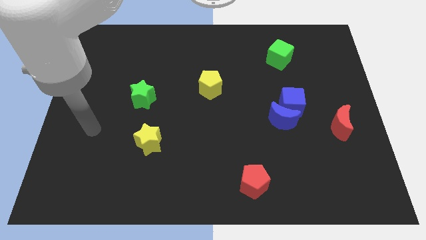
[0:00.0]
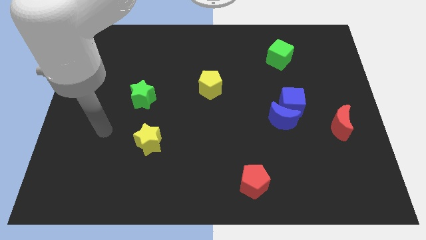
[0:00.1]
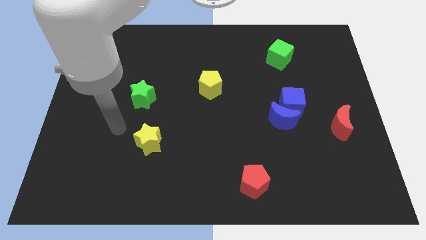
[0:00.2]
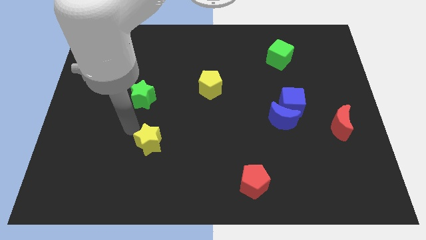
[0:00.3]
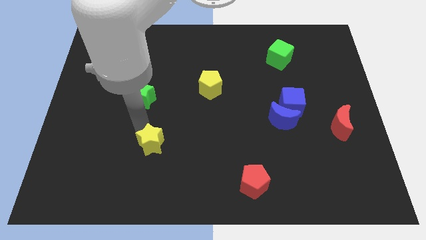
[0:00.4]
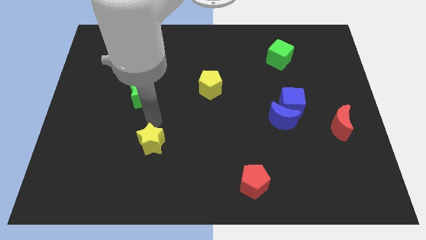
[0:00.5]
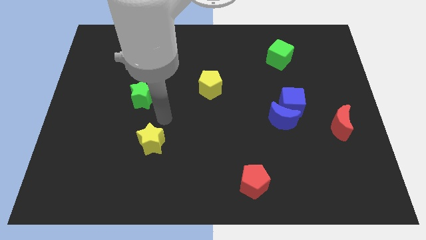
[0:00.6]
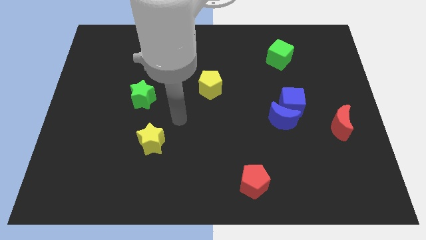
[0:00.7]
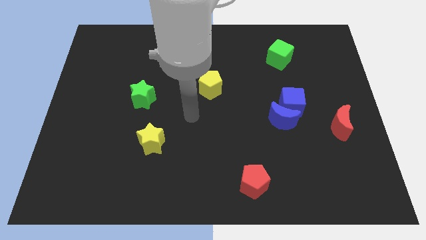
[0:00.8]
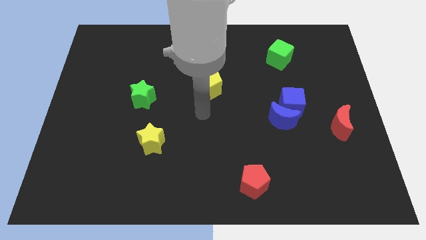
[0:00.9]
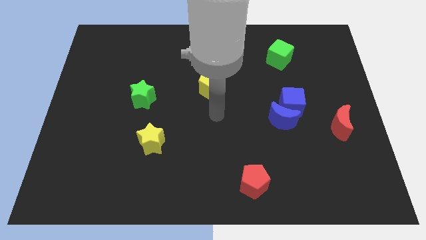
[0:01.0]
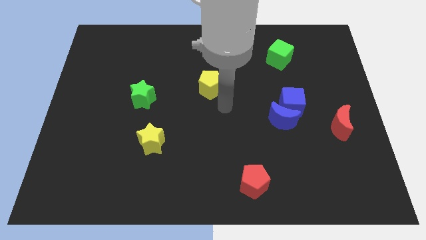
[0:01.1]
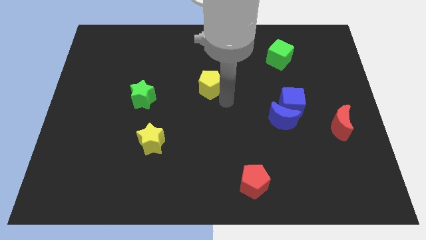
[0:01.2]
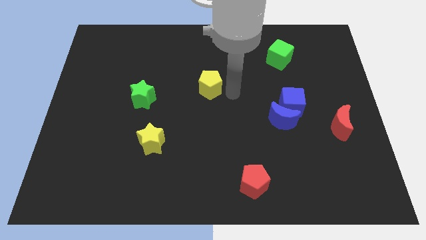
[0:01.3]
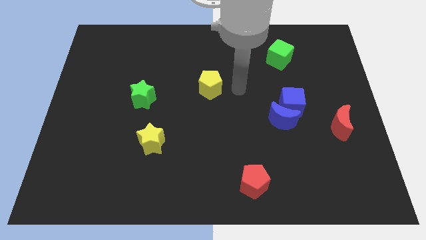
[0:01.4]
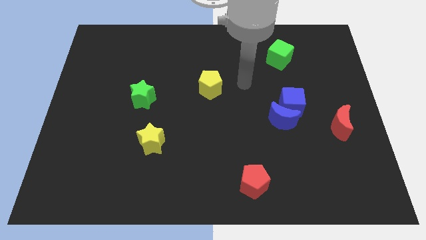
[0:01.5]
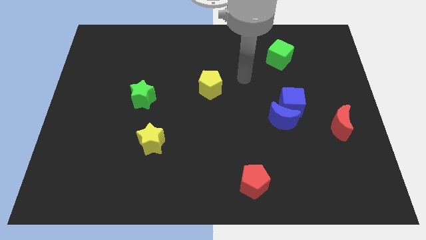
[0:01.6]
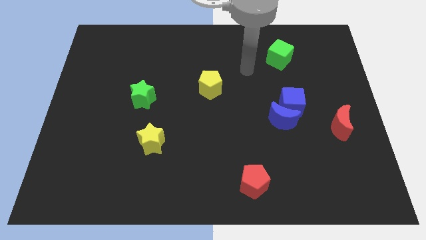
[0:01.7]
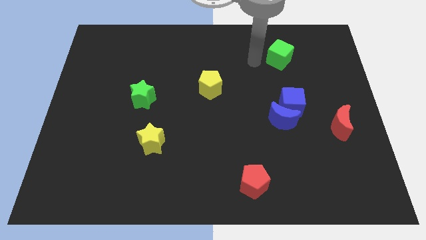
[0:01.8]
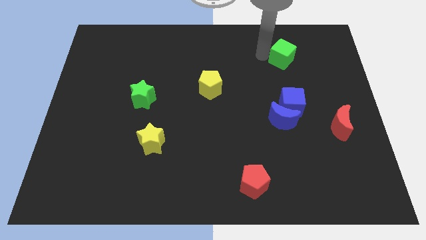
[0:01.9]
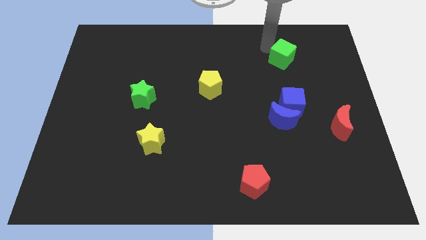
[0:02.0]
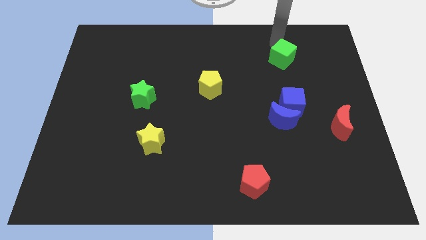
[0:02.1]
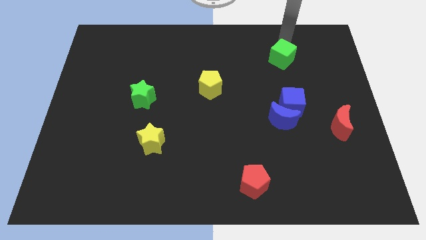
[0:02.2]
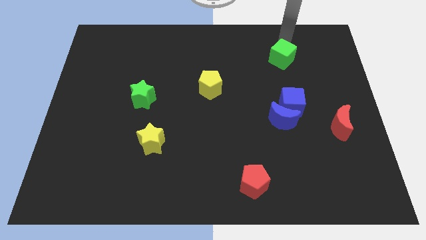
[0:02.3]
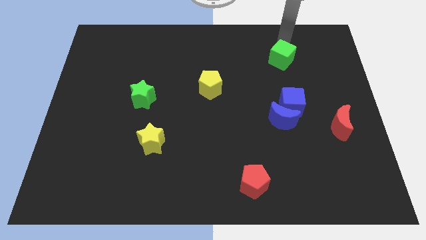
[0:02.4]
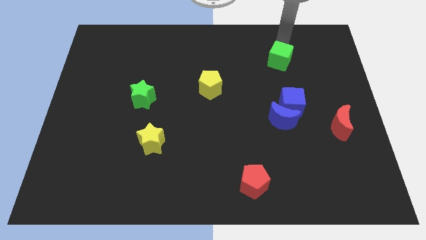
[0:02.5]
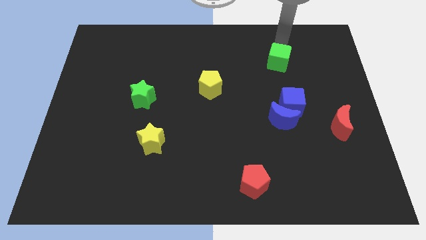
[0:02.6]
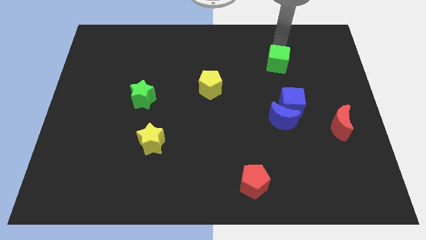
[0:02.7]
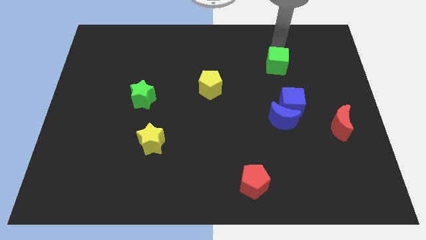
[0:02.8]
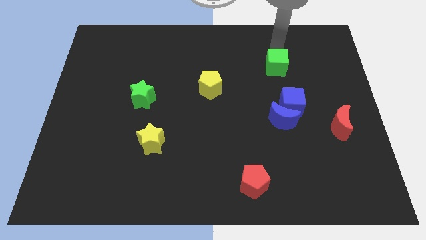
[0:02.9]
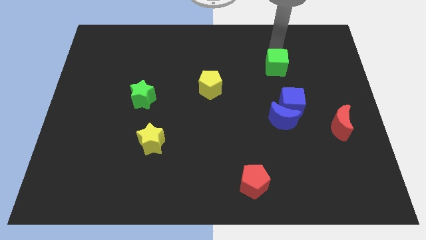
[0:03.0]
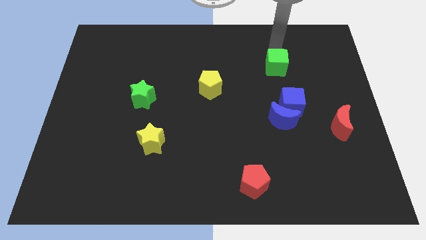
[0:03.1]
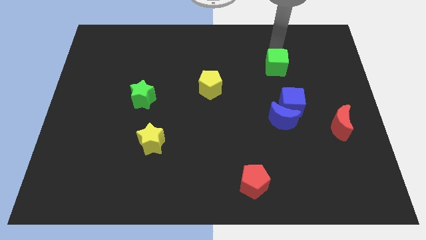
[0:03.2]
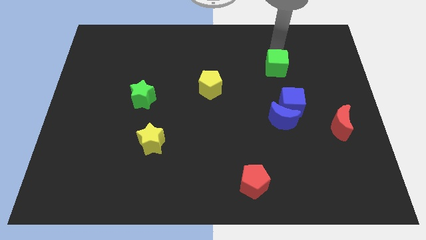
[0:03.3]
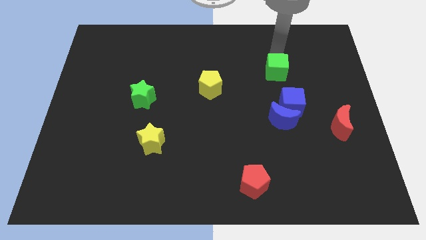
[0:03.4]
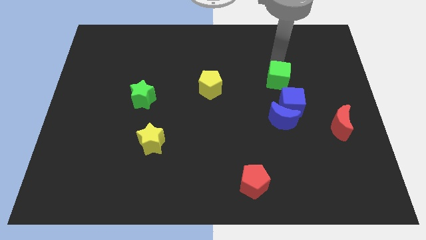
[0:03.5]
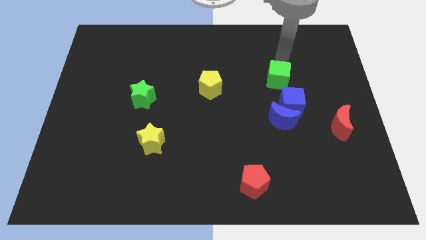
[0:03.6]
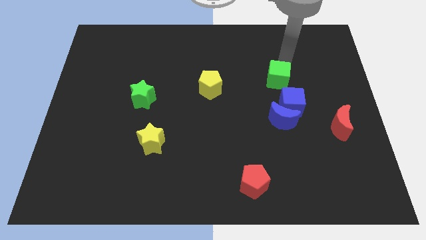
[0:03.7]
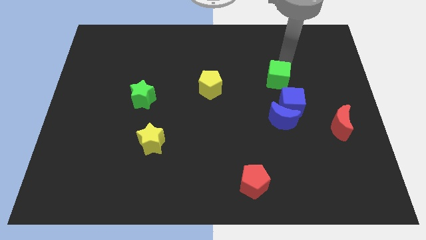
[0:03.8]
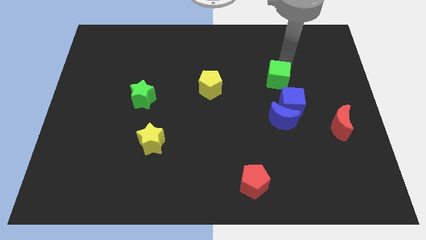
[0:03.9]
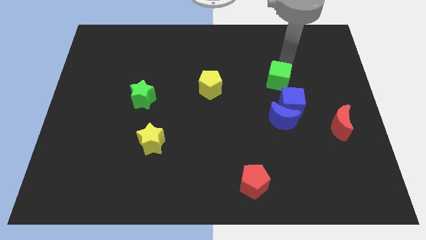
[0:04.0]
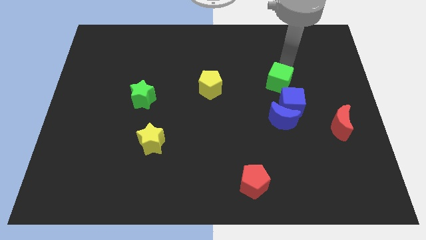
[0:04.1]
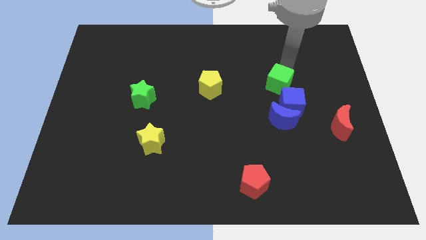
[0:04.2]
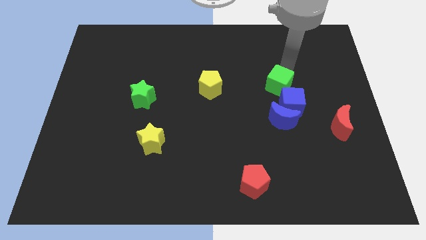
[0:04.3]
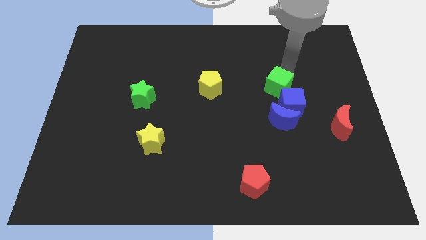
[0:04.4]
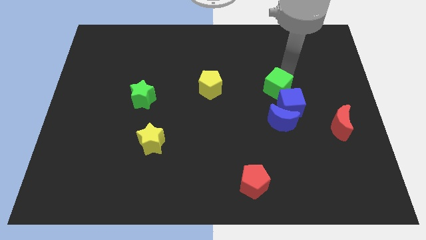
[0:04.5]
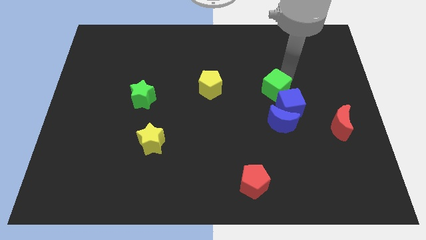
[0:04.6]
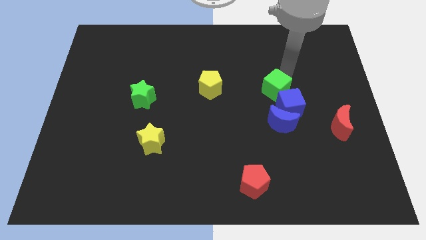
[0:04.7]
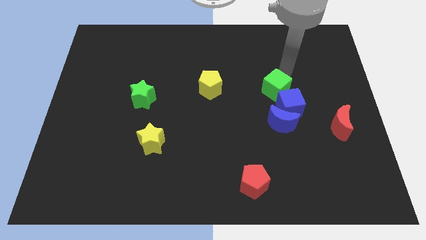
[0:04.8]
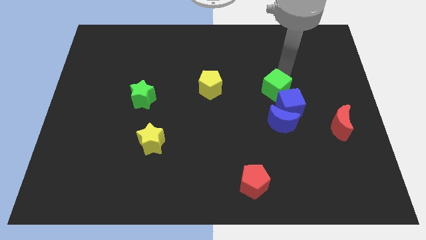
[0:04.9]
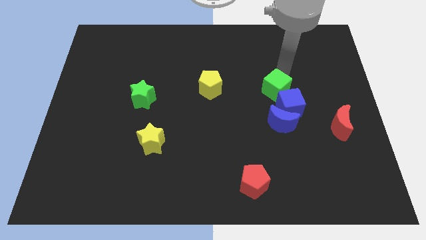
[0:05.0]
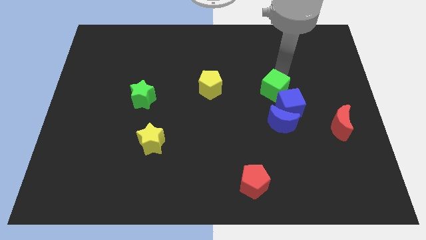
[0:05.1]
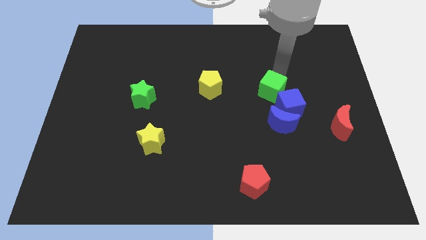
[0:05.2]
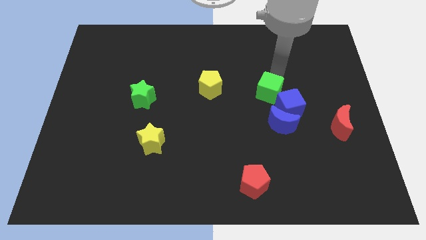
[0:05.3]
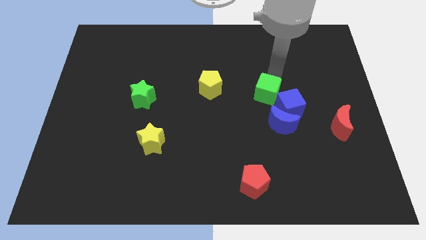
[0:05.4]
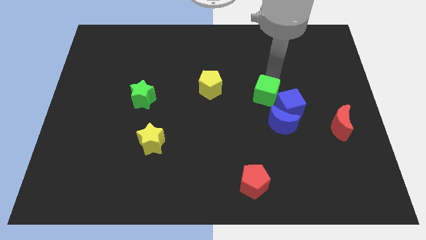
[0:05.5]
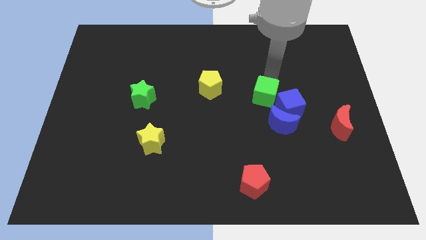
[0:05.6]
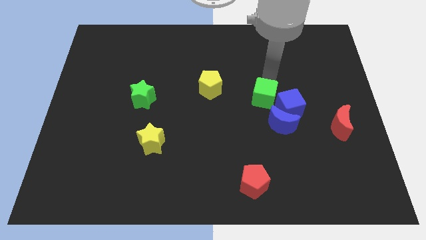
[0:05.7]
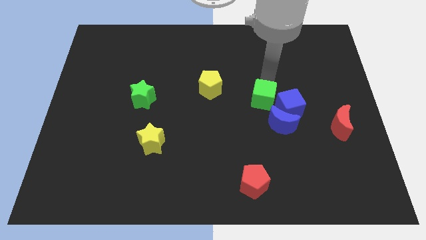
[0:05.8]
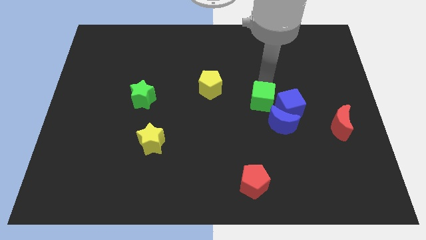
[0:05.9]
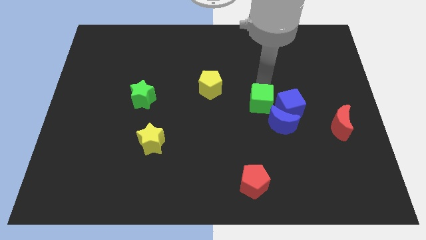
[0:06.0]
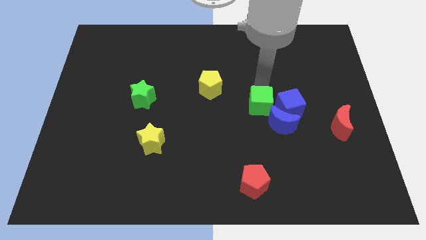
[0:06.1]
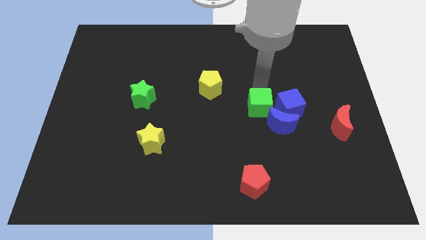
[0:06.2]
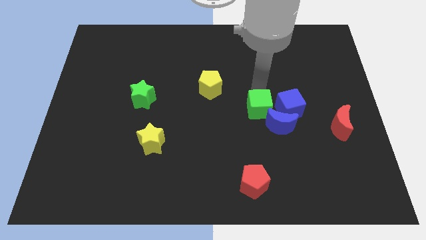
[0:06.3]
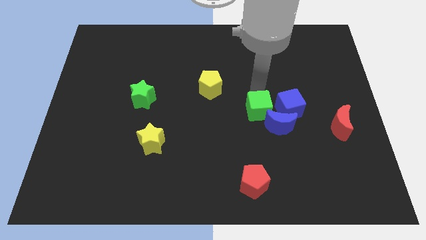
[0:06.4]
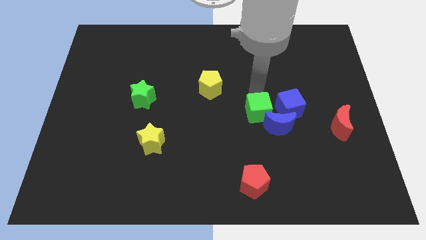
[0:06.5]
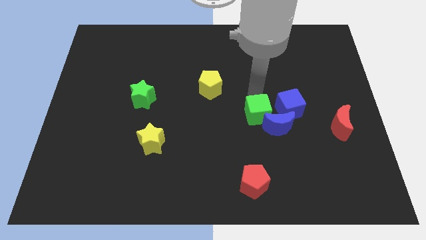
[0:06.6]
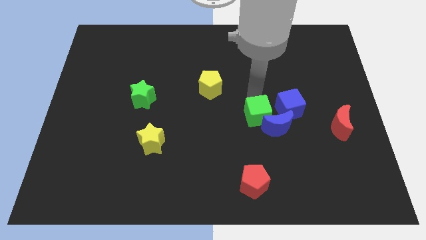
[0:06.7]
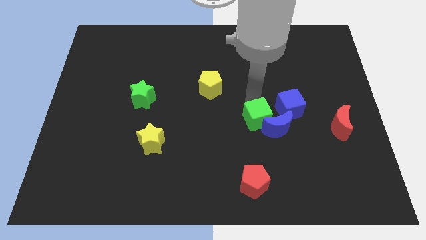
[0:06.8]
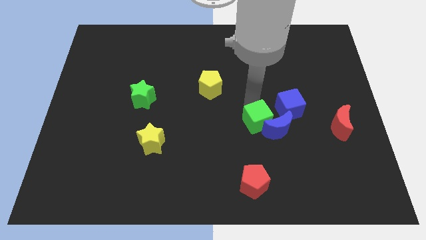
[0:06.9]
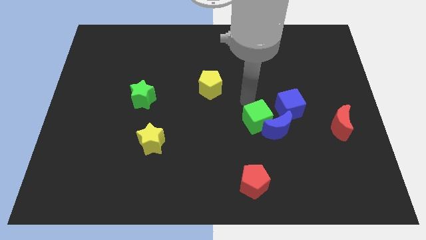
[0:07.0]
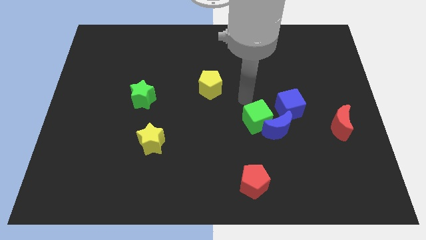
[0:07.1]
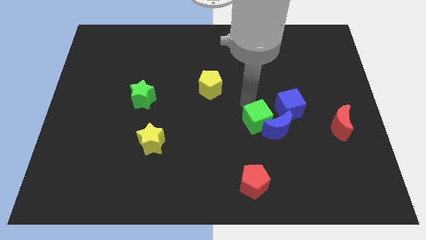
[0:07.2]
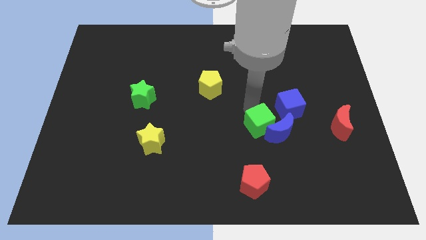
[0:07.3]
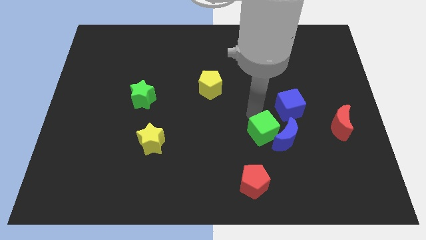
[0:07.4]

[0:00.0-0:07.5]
push the green cube down

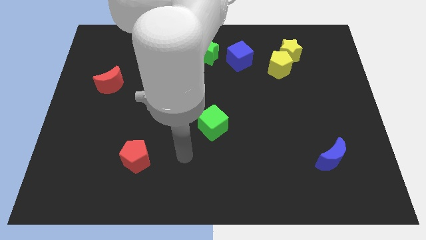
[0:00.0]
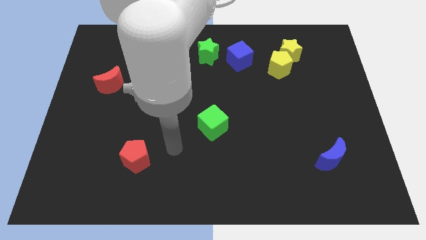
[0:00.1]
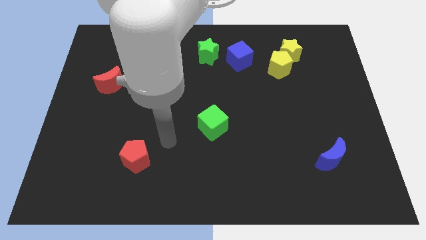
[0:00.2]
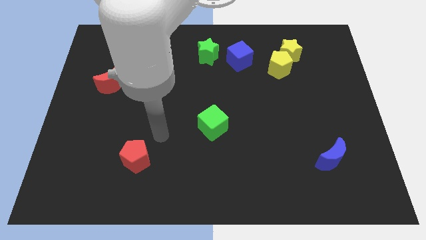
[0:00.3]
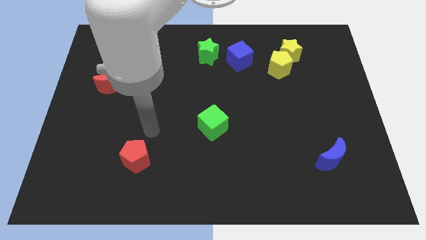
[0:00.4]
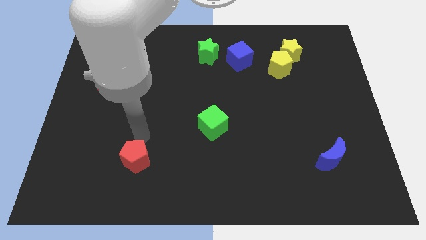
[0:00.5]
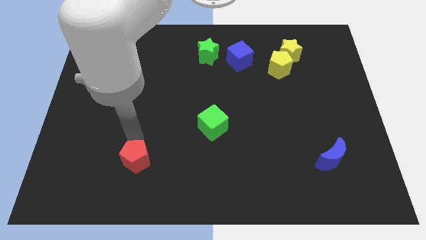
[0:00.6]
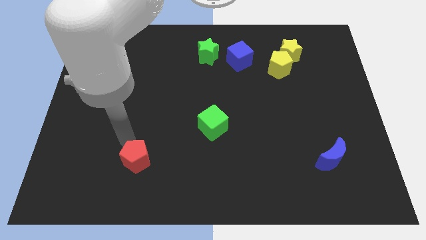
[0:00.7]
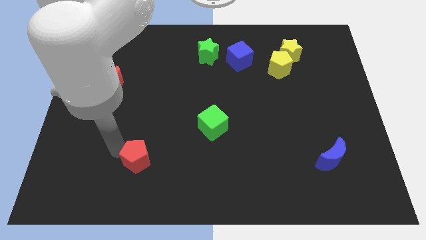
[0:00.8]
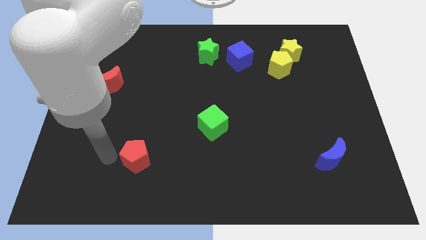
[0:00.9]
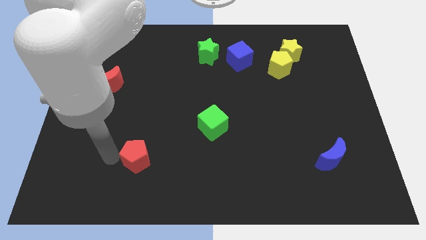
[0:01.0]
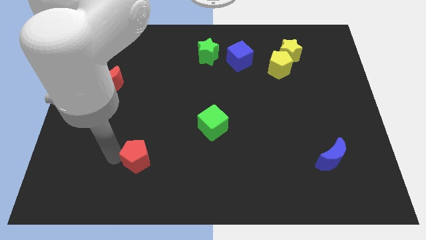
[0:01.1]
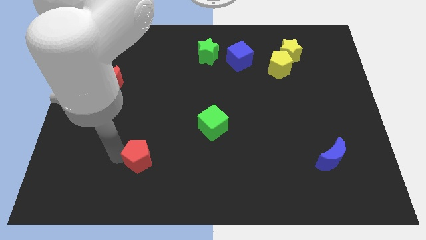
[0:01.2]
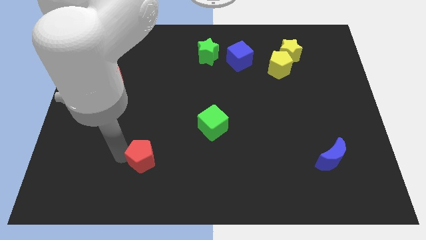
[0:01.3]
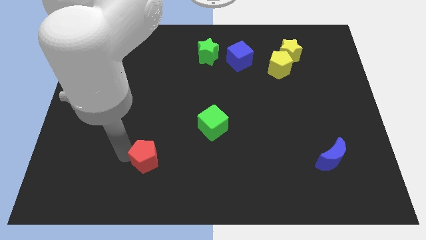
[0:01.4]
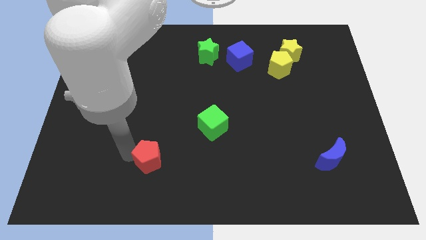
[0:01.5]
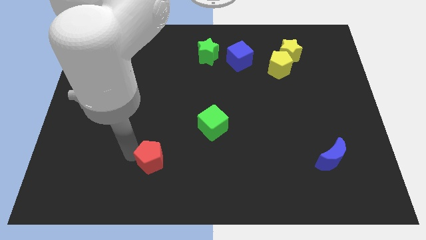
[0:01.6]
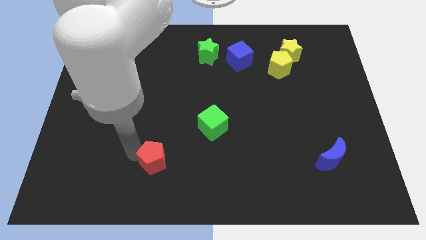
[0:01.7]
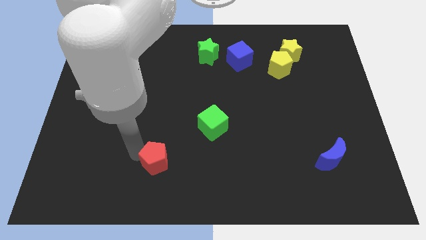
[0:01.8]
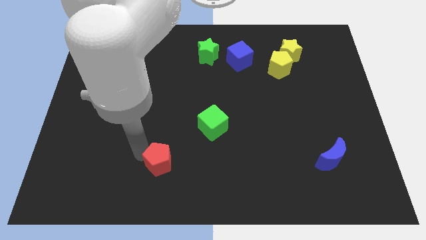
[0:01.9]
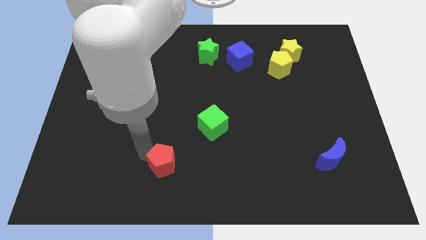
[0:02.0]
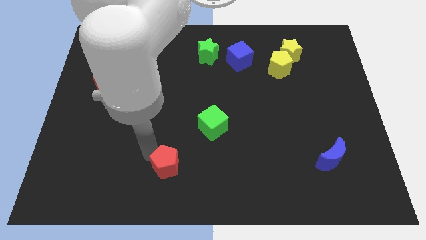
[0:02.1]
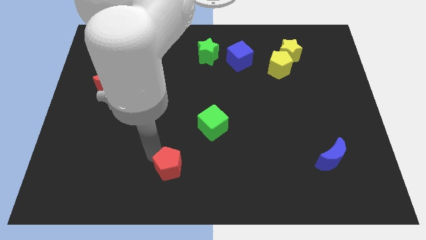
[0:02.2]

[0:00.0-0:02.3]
push the red pentagon to the right somewhat
